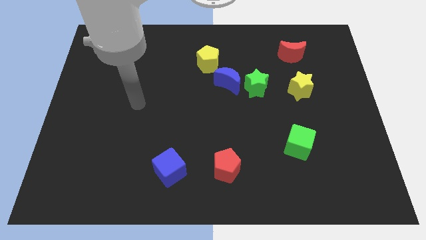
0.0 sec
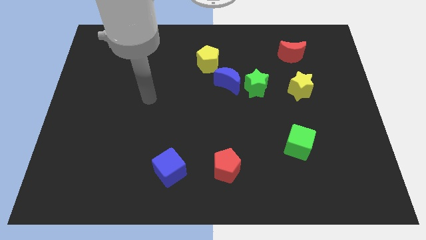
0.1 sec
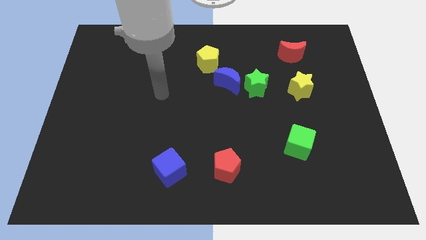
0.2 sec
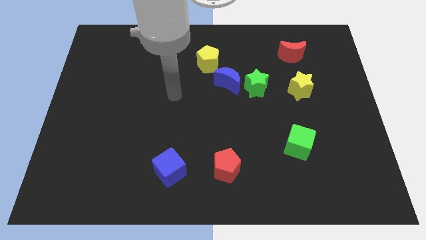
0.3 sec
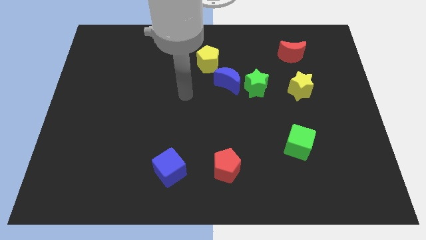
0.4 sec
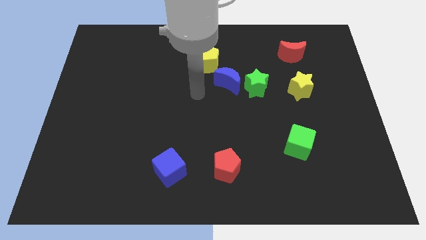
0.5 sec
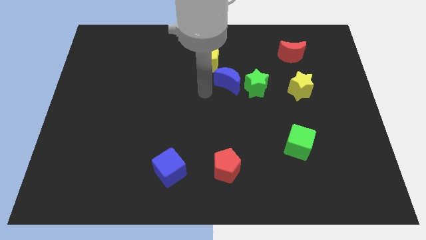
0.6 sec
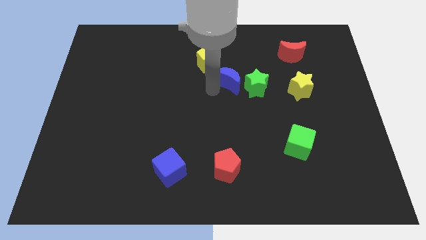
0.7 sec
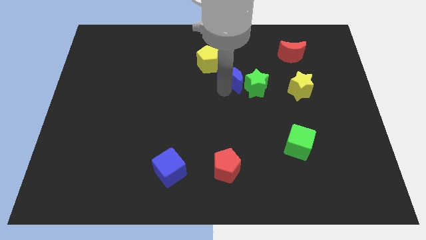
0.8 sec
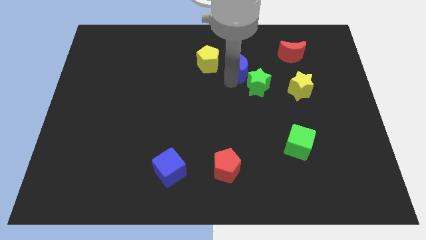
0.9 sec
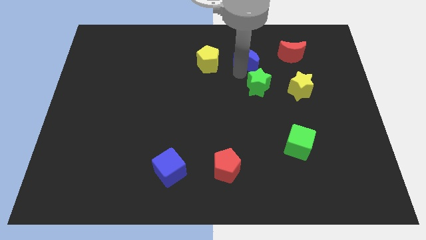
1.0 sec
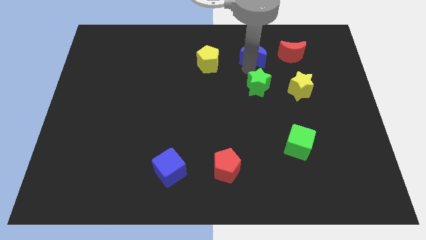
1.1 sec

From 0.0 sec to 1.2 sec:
pull the green star apart from the blue moon

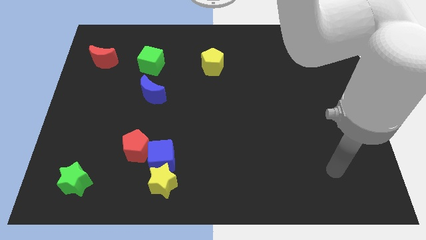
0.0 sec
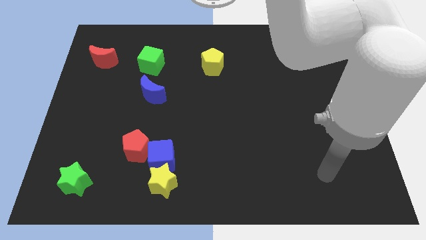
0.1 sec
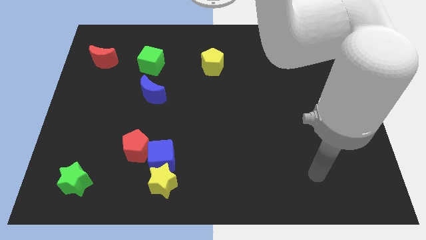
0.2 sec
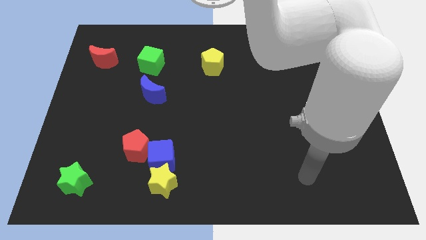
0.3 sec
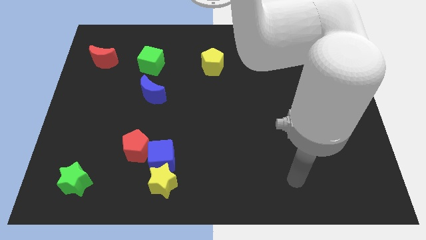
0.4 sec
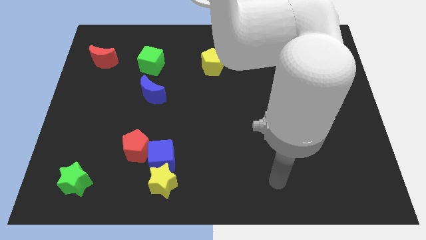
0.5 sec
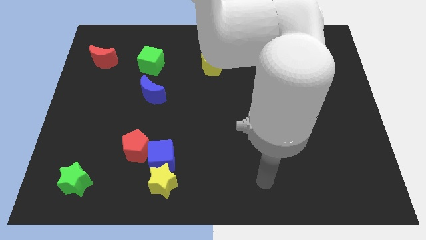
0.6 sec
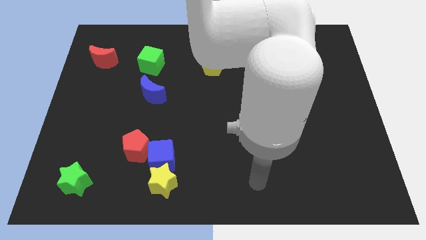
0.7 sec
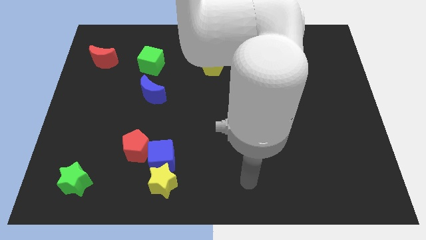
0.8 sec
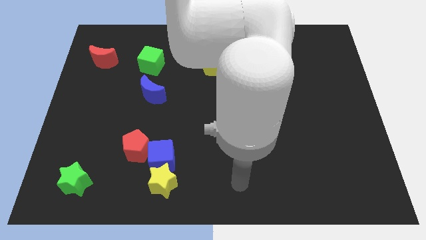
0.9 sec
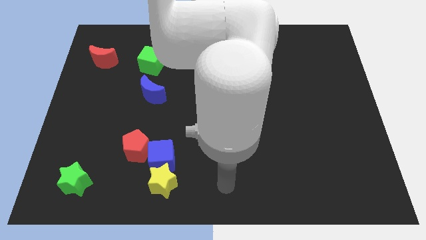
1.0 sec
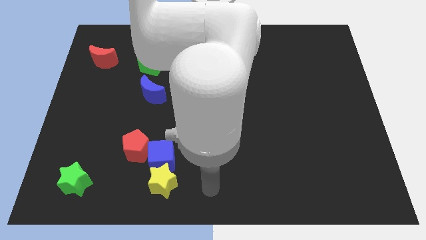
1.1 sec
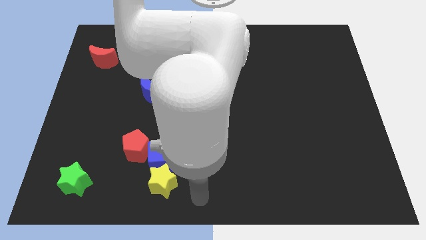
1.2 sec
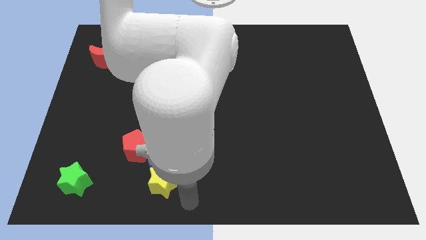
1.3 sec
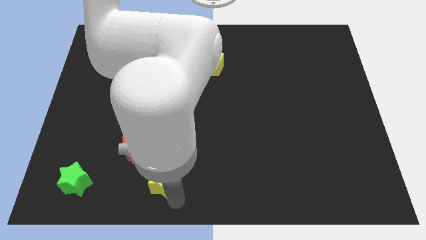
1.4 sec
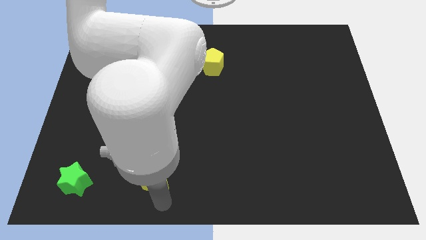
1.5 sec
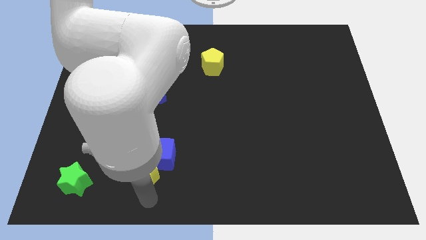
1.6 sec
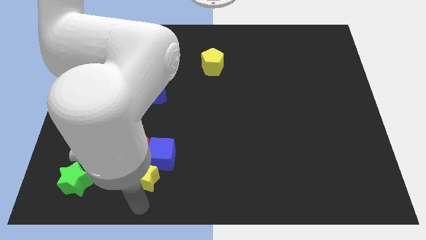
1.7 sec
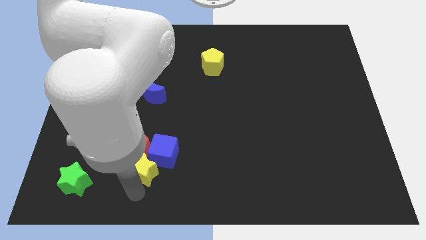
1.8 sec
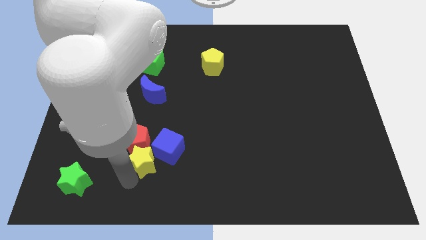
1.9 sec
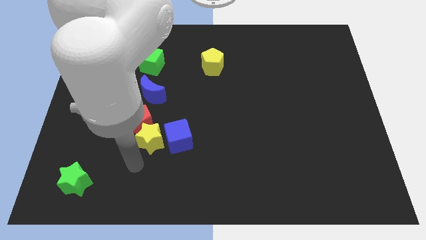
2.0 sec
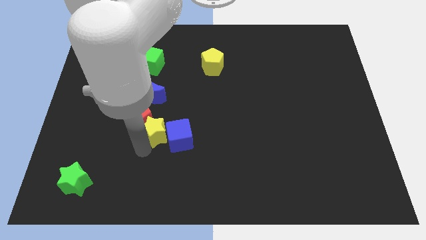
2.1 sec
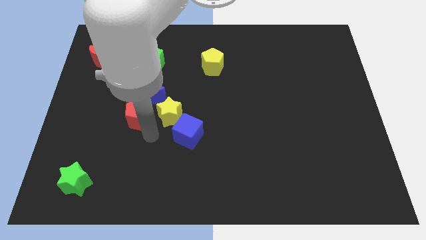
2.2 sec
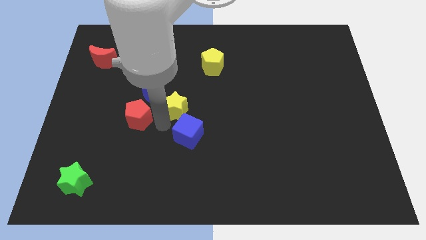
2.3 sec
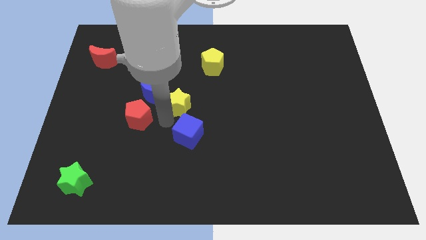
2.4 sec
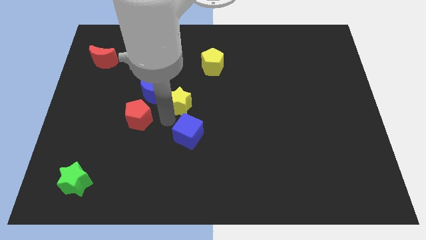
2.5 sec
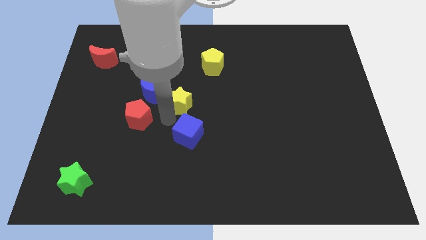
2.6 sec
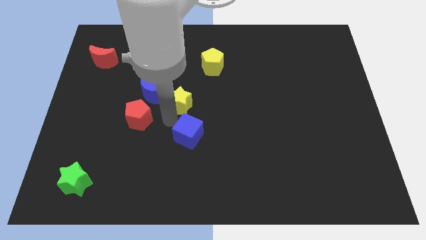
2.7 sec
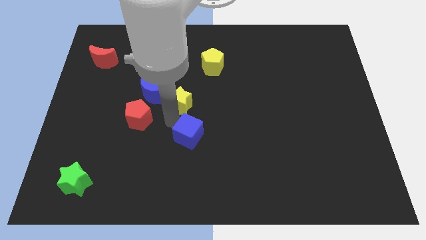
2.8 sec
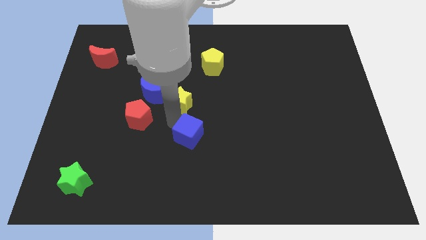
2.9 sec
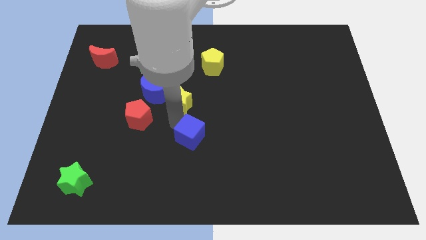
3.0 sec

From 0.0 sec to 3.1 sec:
move the blue cube away from the yellow star and red pentagon

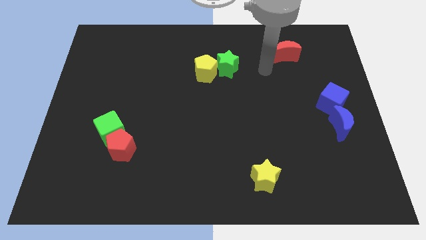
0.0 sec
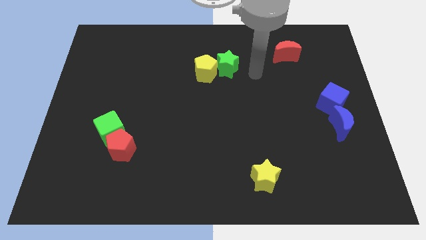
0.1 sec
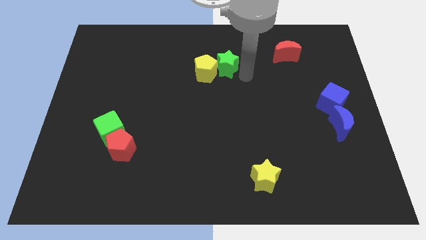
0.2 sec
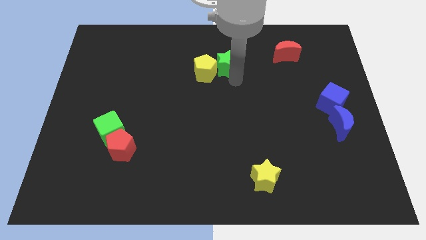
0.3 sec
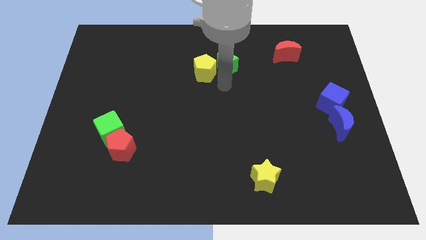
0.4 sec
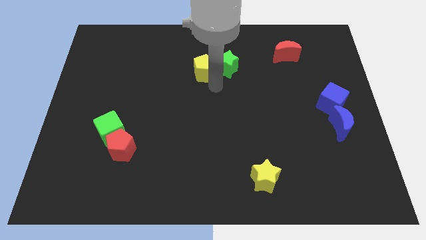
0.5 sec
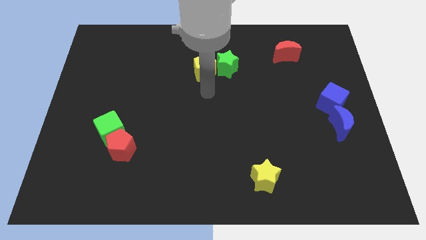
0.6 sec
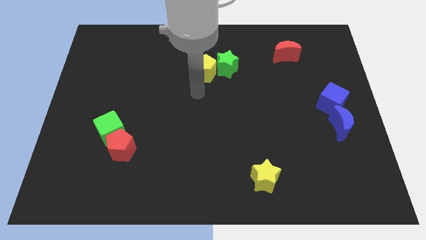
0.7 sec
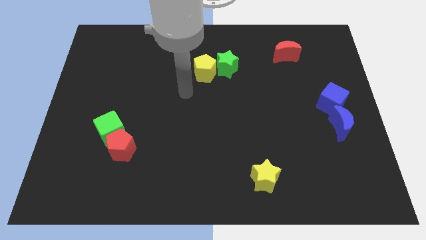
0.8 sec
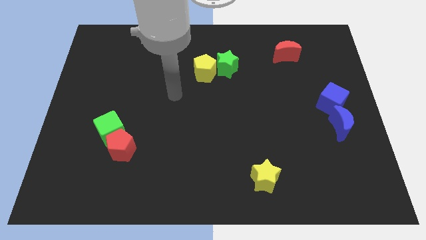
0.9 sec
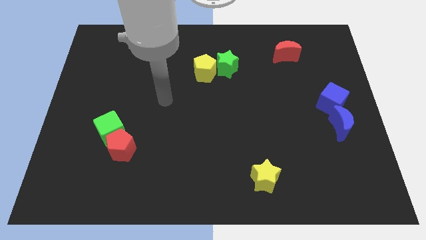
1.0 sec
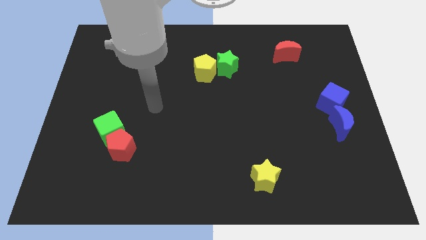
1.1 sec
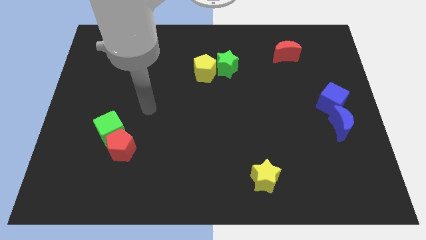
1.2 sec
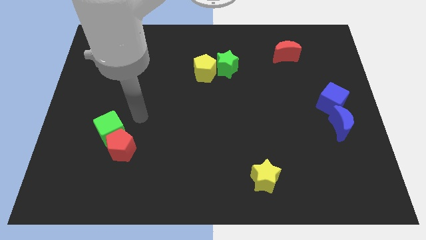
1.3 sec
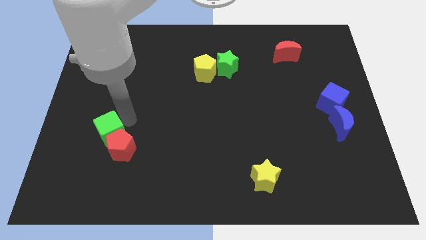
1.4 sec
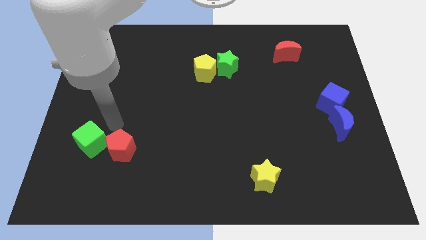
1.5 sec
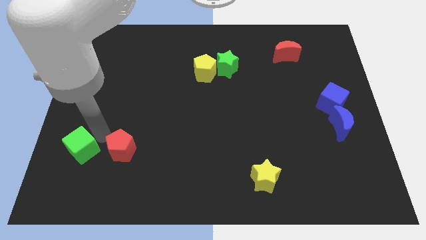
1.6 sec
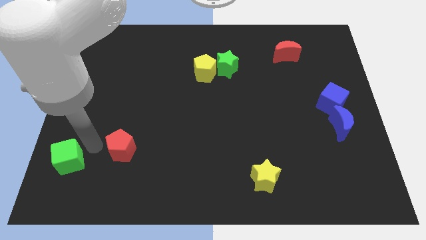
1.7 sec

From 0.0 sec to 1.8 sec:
separate the red pentagon from the green cube

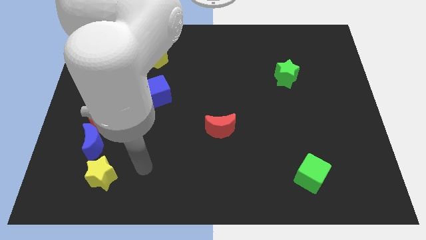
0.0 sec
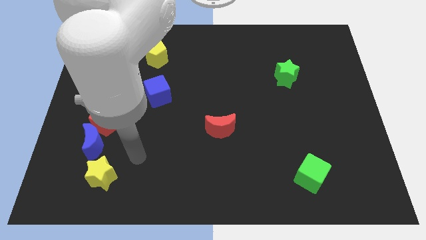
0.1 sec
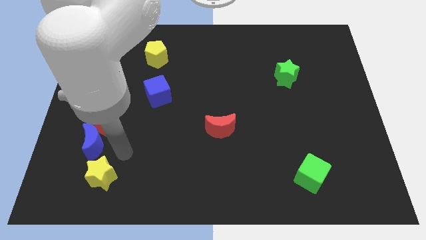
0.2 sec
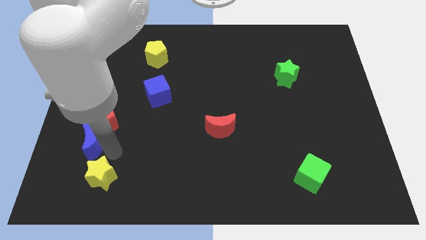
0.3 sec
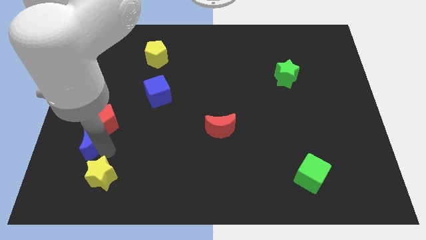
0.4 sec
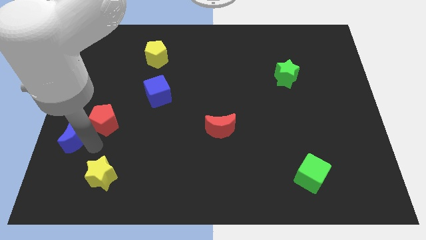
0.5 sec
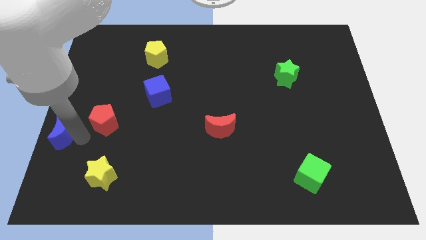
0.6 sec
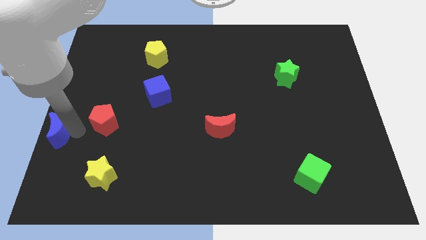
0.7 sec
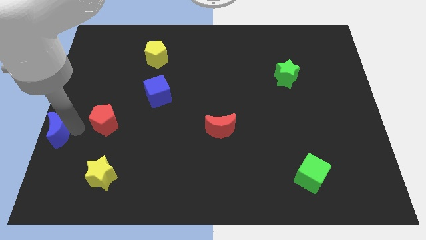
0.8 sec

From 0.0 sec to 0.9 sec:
separate the red pentagon from the blue moon

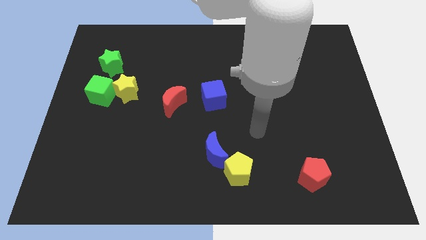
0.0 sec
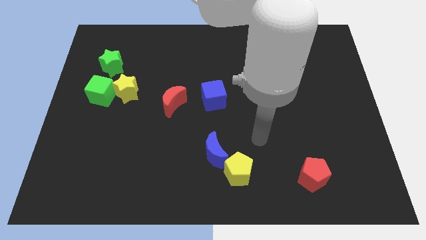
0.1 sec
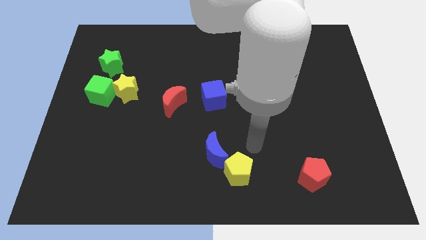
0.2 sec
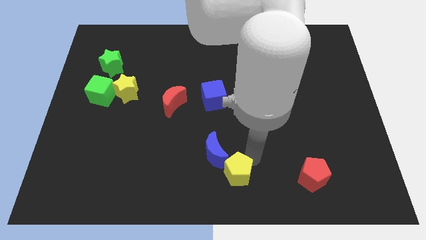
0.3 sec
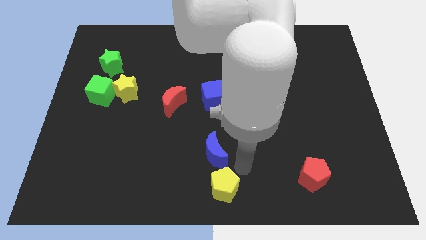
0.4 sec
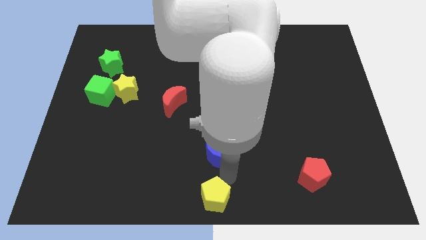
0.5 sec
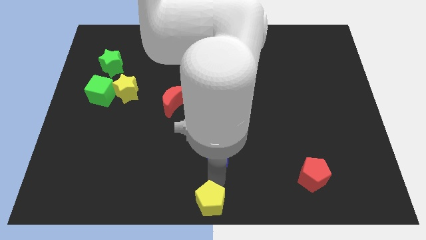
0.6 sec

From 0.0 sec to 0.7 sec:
pull the blue moon apart from the yellow pentagon

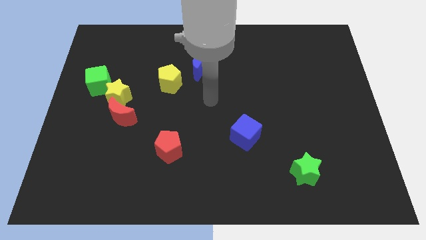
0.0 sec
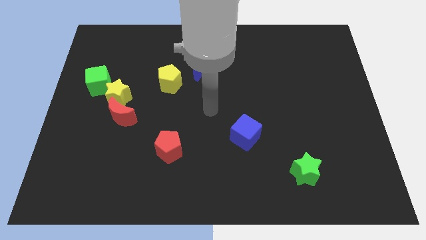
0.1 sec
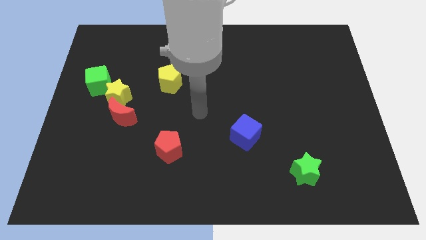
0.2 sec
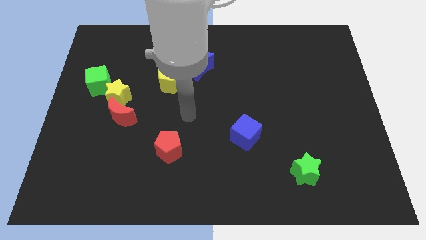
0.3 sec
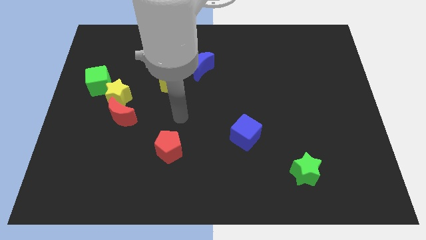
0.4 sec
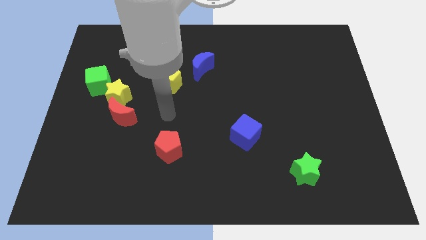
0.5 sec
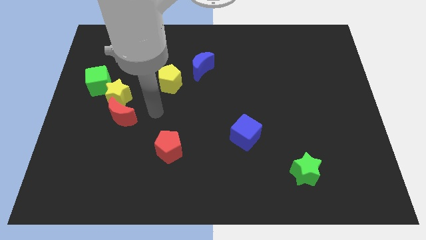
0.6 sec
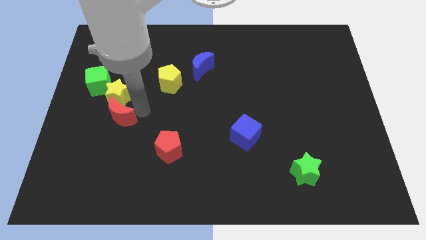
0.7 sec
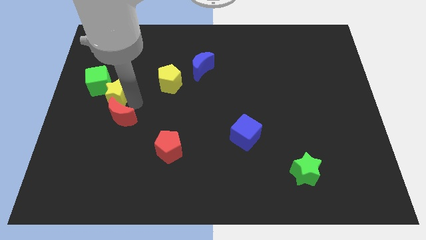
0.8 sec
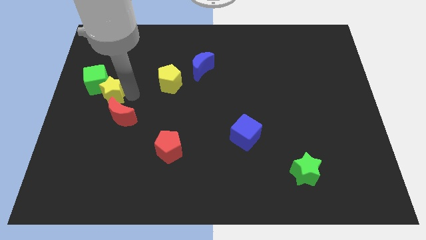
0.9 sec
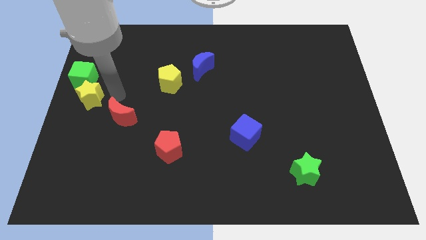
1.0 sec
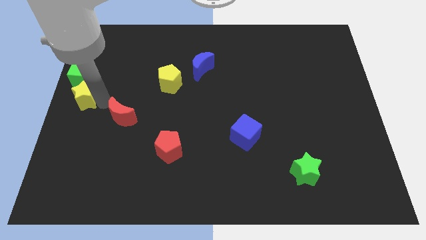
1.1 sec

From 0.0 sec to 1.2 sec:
pull the red moon apart from the yellow star

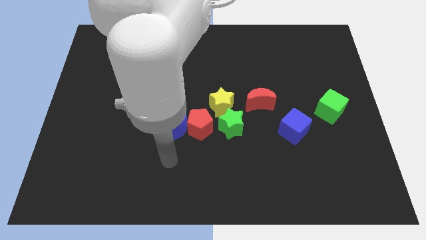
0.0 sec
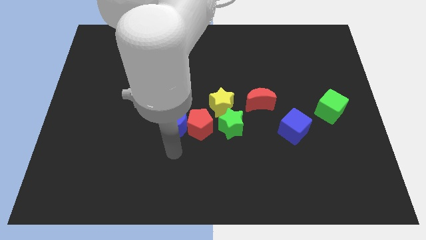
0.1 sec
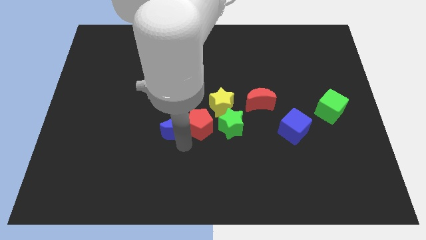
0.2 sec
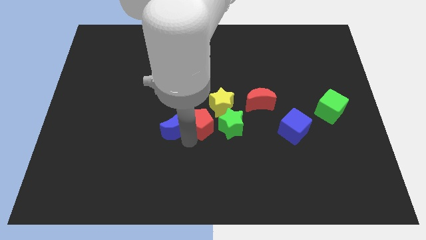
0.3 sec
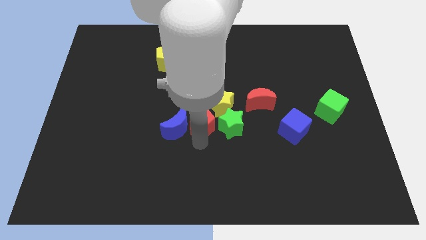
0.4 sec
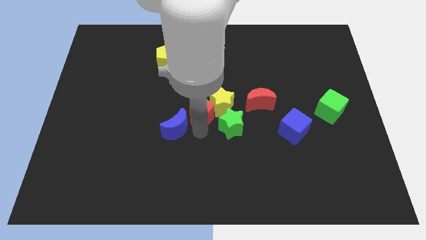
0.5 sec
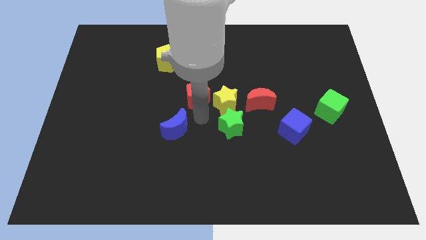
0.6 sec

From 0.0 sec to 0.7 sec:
move the blue moon away from the red pentagon
